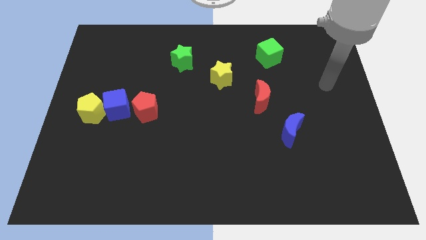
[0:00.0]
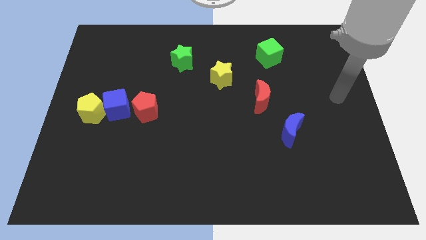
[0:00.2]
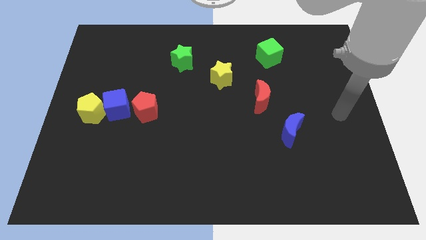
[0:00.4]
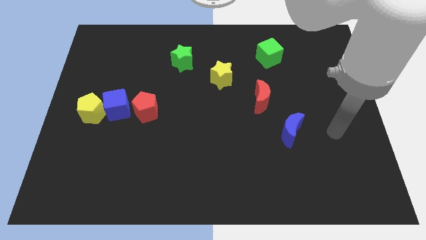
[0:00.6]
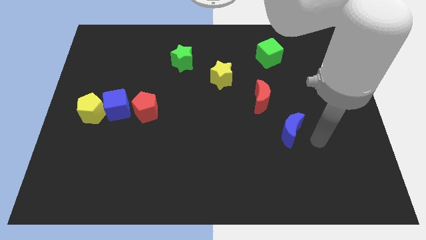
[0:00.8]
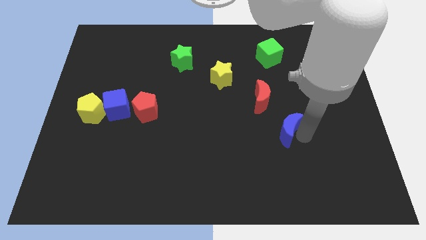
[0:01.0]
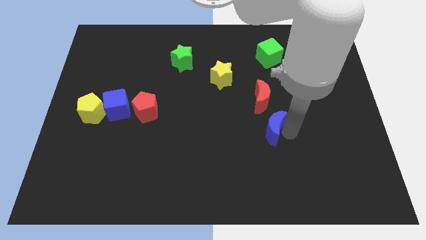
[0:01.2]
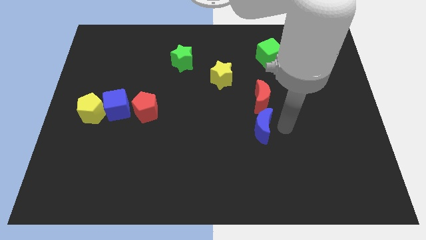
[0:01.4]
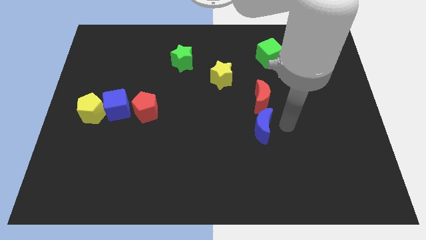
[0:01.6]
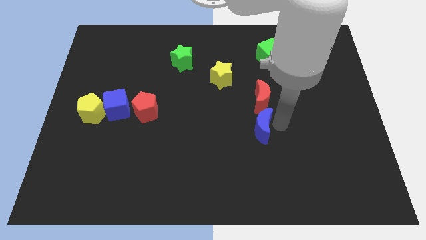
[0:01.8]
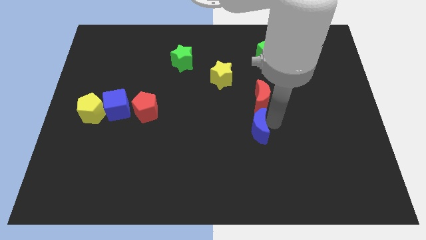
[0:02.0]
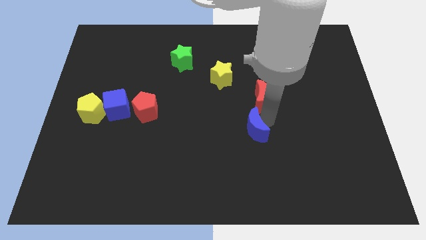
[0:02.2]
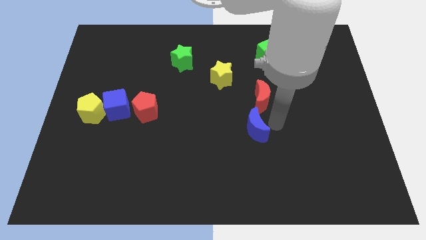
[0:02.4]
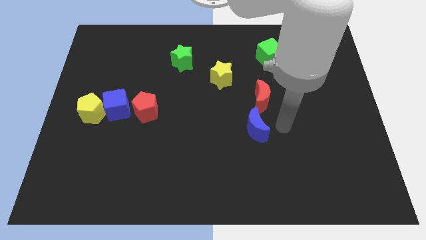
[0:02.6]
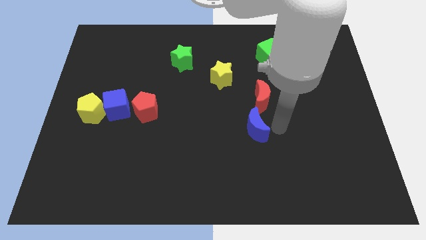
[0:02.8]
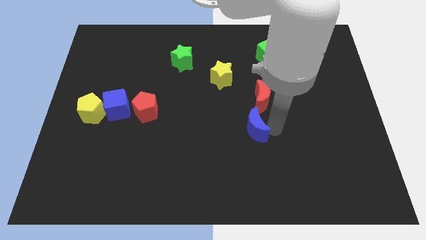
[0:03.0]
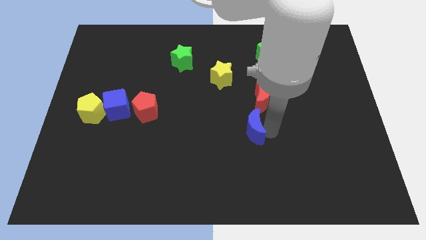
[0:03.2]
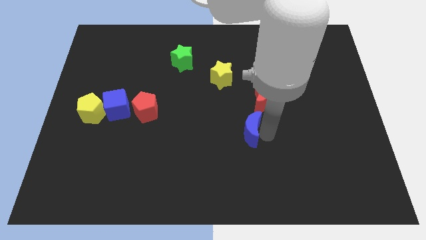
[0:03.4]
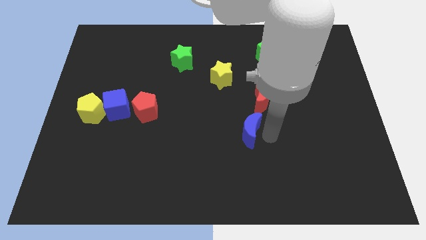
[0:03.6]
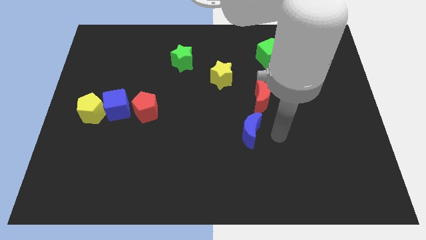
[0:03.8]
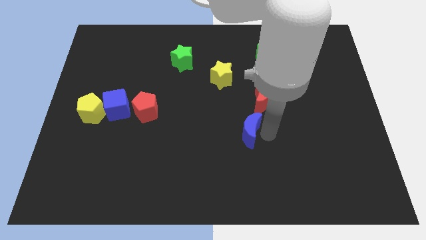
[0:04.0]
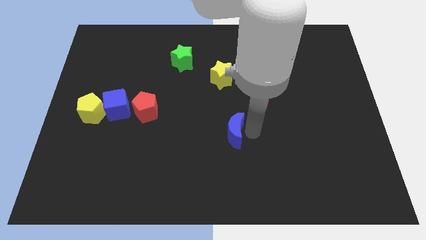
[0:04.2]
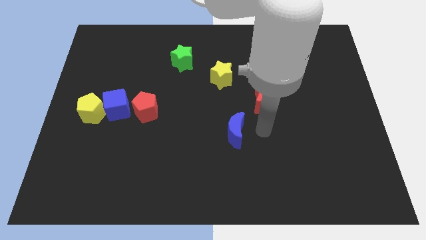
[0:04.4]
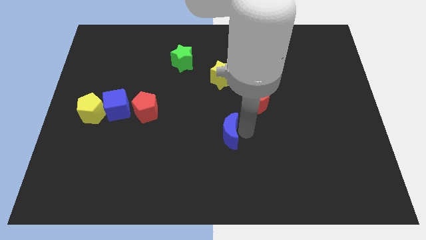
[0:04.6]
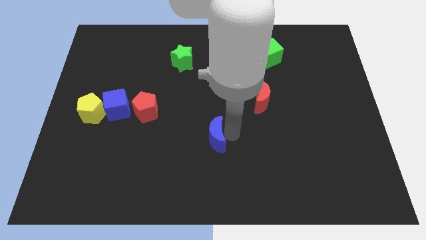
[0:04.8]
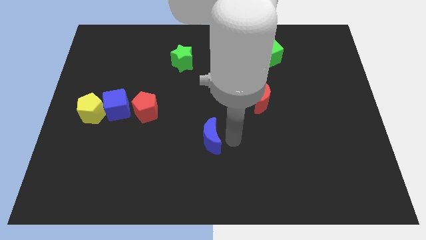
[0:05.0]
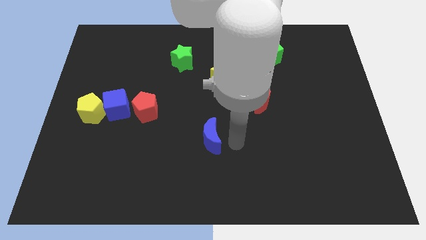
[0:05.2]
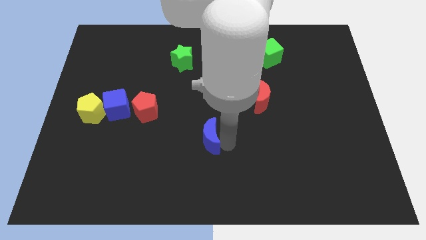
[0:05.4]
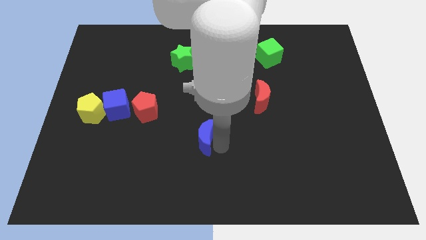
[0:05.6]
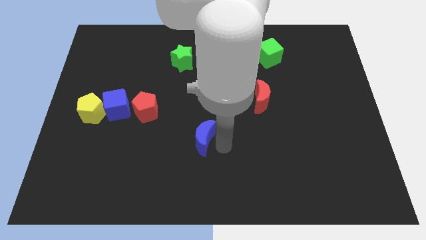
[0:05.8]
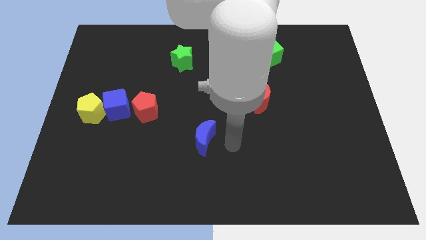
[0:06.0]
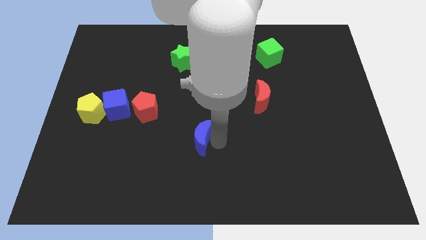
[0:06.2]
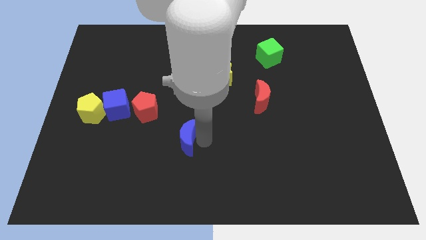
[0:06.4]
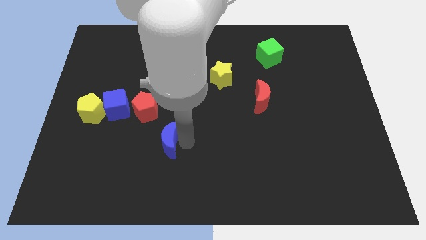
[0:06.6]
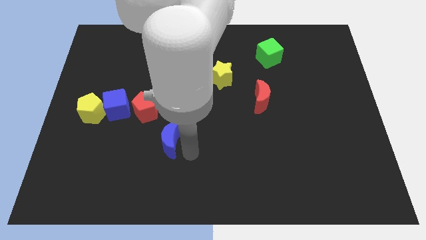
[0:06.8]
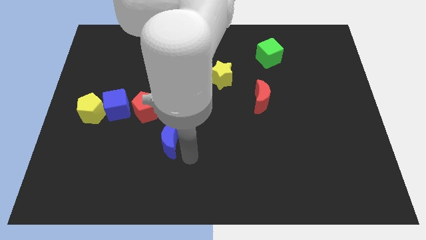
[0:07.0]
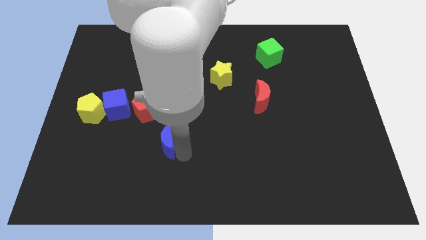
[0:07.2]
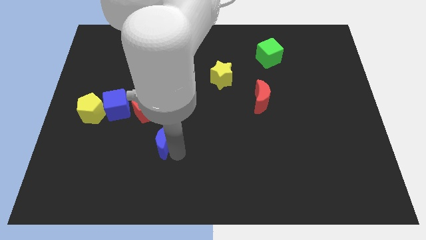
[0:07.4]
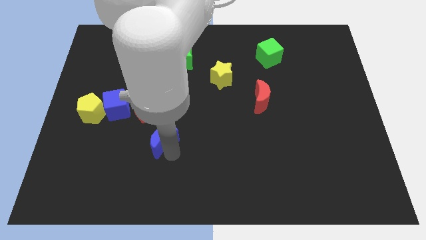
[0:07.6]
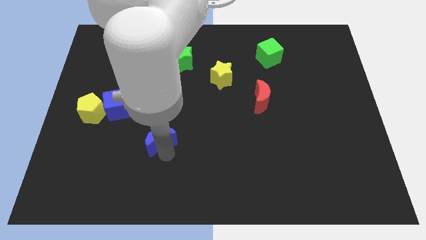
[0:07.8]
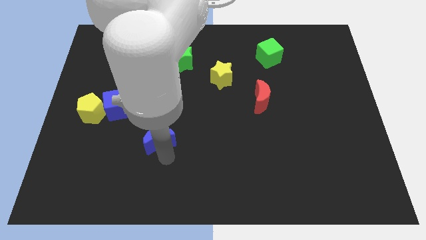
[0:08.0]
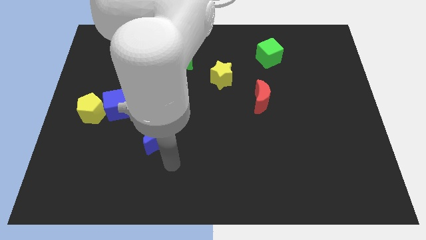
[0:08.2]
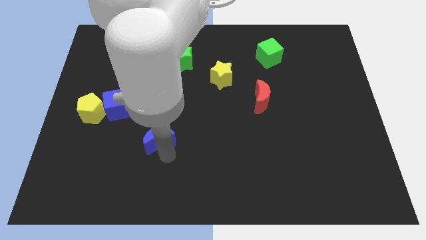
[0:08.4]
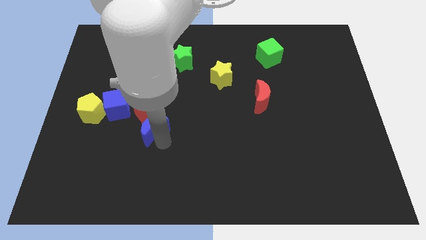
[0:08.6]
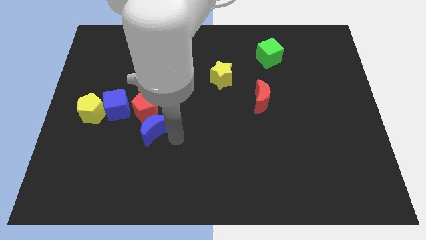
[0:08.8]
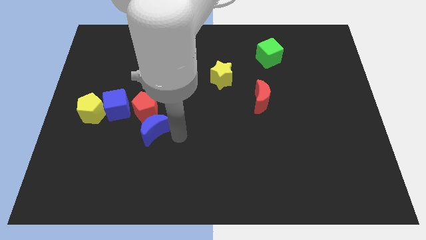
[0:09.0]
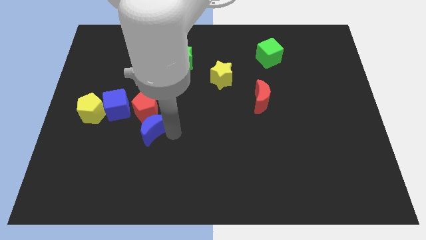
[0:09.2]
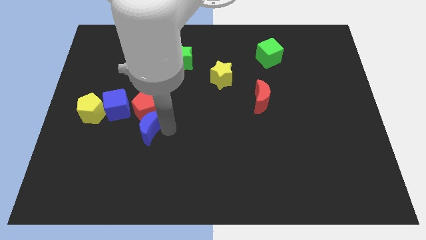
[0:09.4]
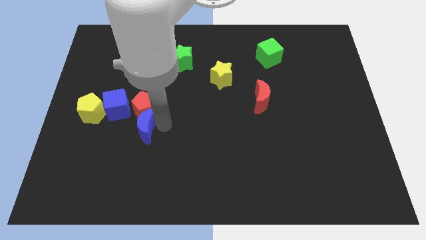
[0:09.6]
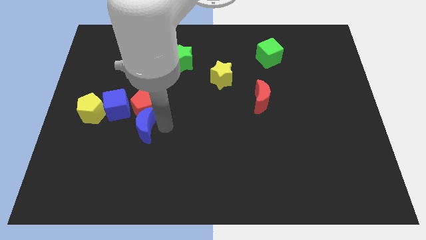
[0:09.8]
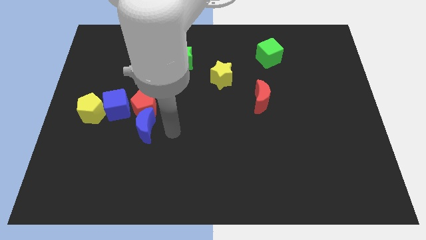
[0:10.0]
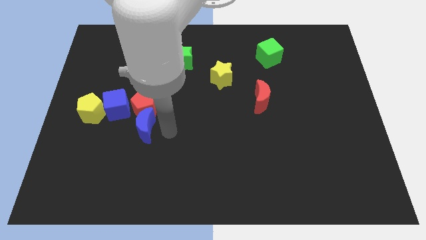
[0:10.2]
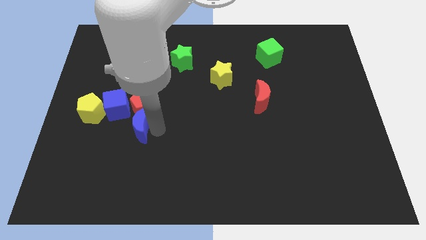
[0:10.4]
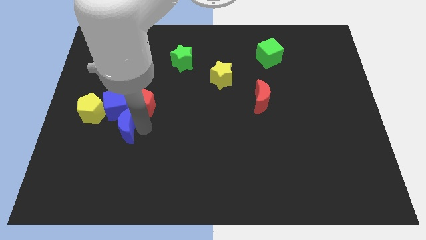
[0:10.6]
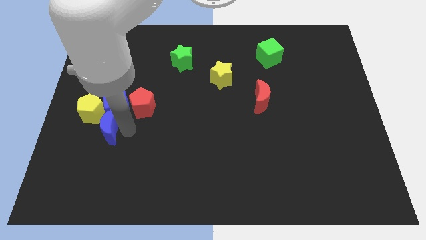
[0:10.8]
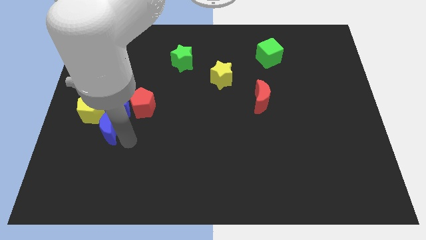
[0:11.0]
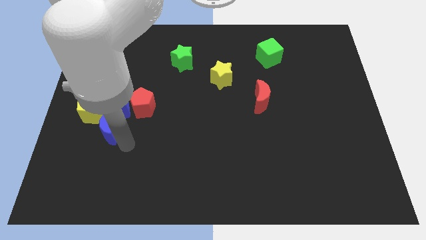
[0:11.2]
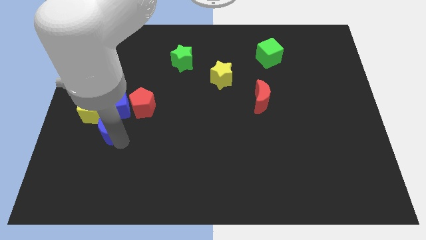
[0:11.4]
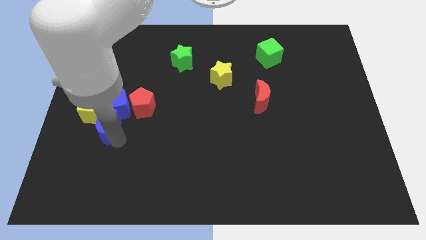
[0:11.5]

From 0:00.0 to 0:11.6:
move the blue moon close to the yellow pentagon

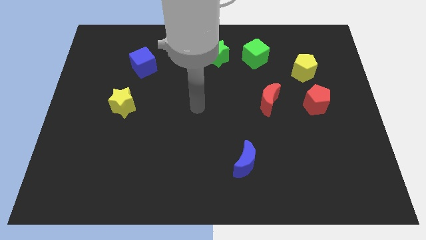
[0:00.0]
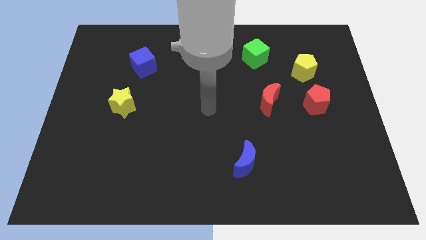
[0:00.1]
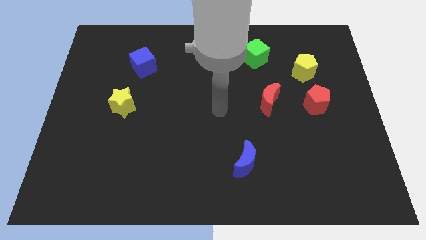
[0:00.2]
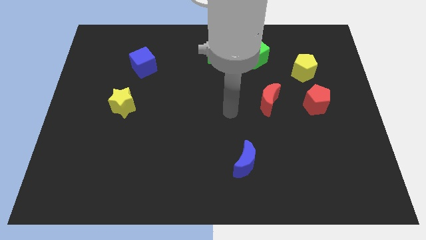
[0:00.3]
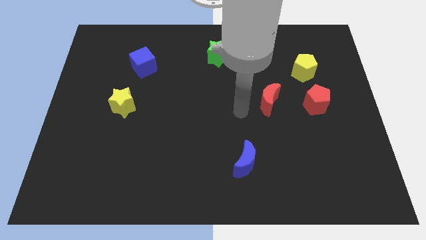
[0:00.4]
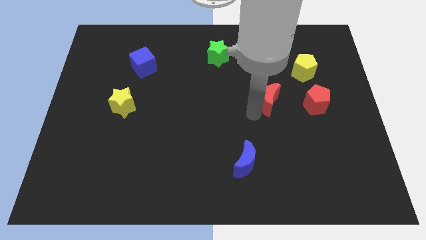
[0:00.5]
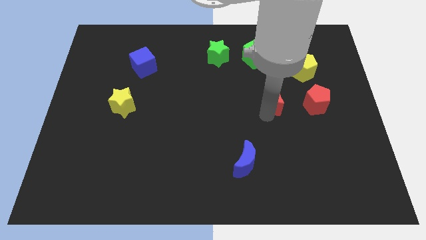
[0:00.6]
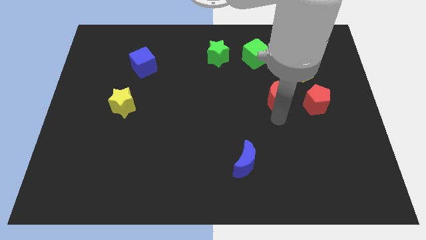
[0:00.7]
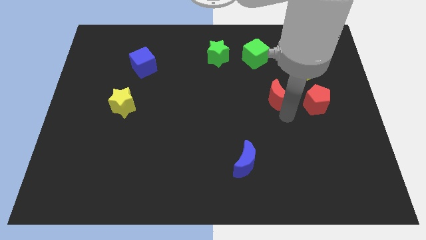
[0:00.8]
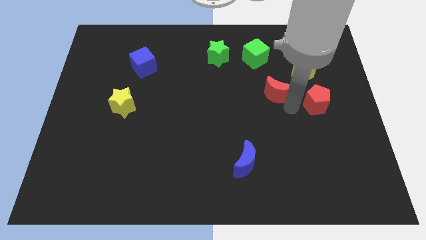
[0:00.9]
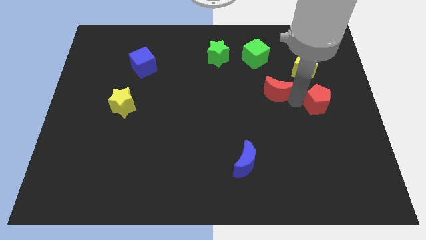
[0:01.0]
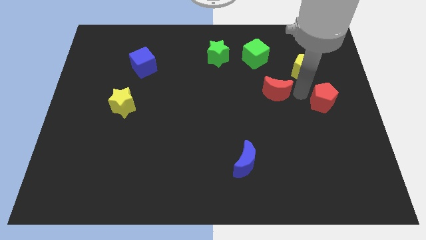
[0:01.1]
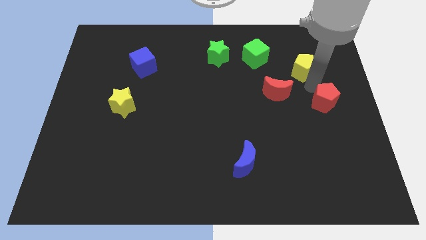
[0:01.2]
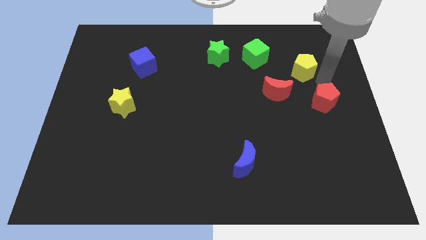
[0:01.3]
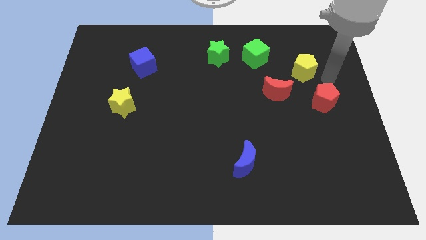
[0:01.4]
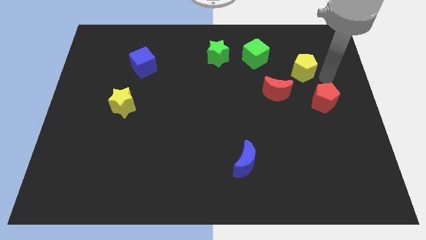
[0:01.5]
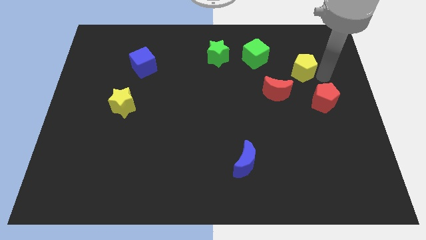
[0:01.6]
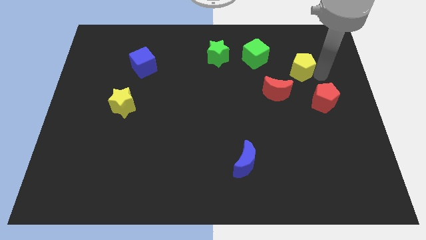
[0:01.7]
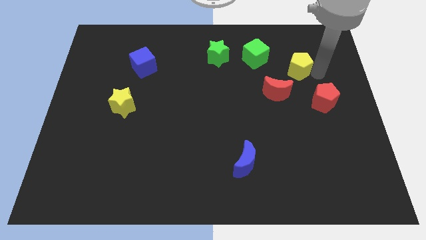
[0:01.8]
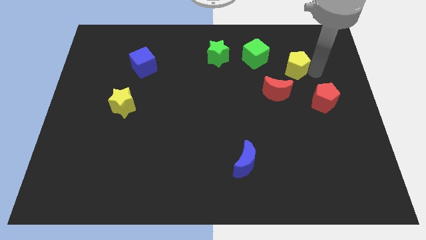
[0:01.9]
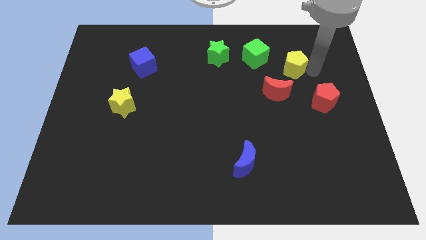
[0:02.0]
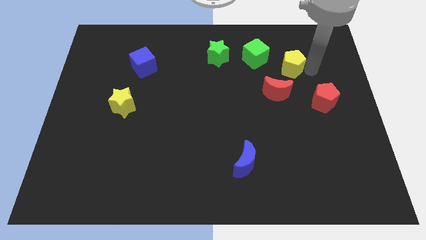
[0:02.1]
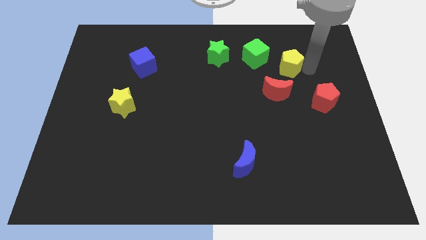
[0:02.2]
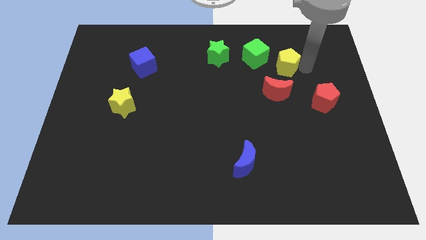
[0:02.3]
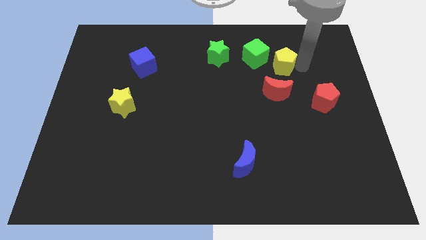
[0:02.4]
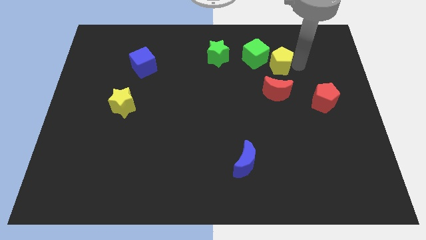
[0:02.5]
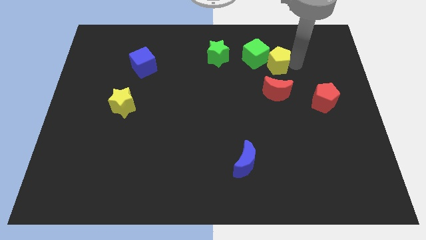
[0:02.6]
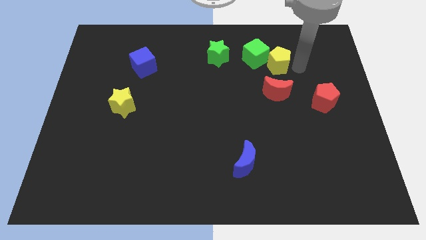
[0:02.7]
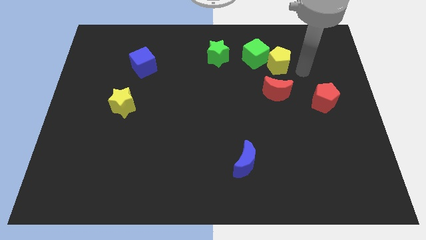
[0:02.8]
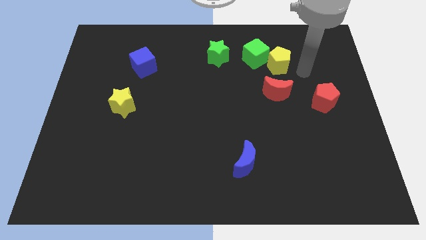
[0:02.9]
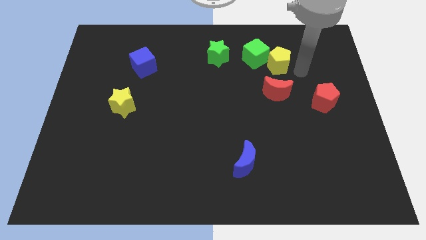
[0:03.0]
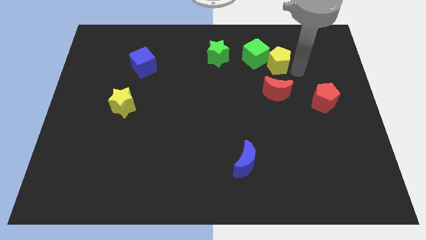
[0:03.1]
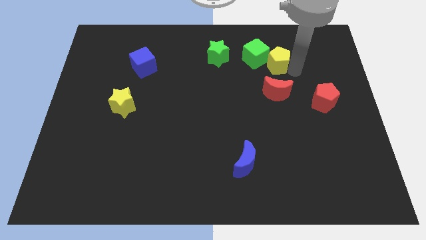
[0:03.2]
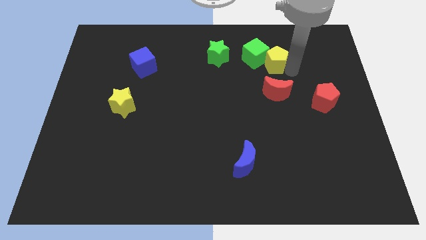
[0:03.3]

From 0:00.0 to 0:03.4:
push the yellow pentagon close to the green cube
